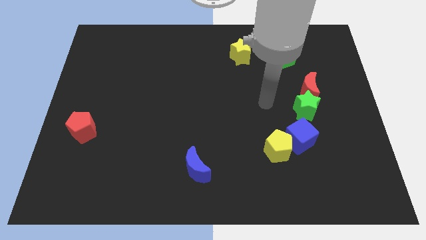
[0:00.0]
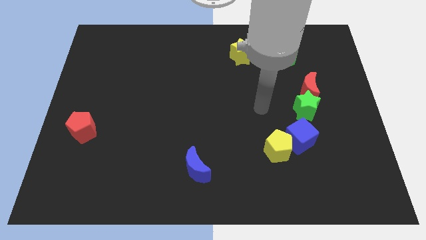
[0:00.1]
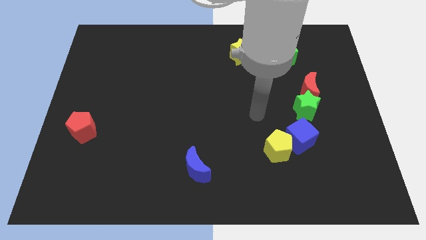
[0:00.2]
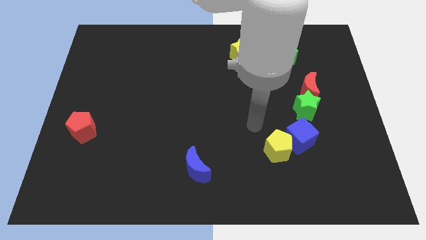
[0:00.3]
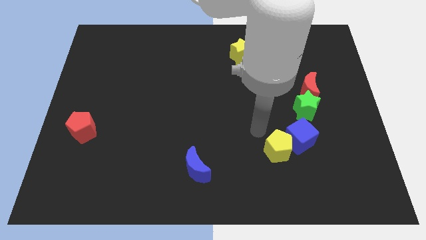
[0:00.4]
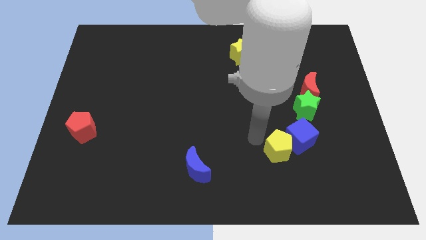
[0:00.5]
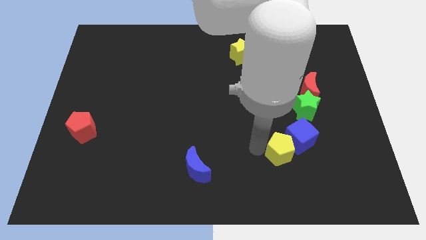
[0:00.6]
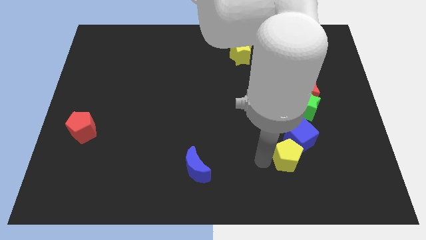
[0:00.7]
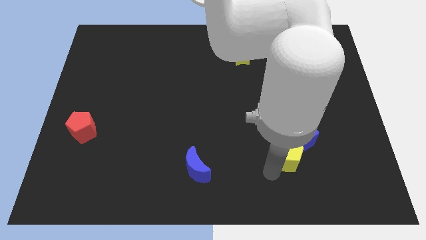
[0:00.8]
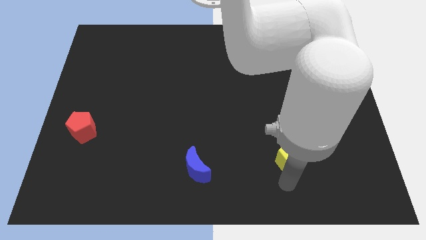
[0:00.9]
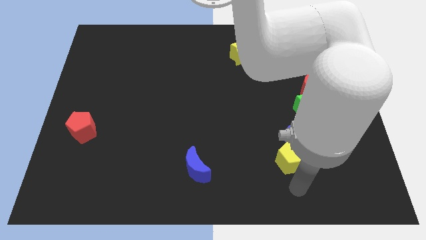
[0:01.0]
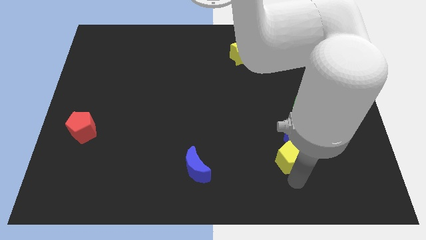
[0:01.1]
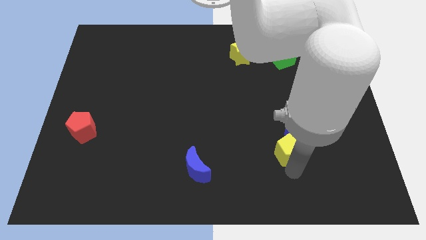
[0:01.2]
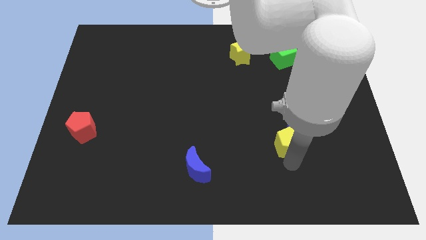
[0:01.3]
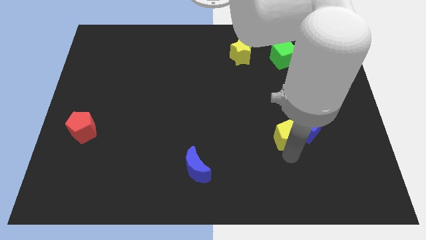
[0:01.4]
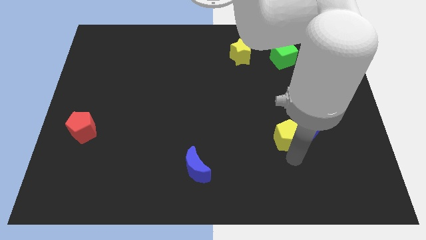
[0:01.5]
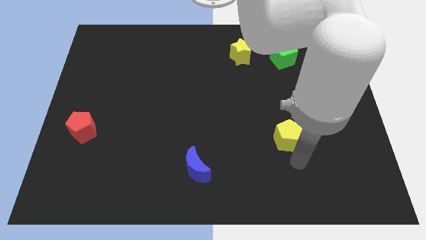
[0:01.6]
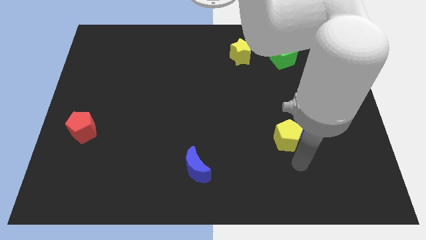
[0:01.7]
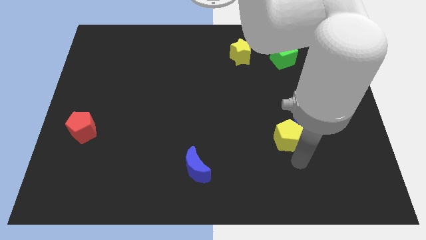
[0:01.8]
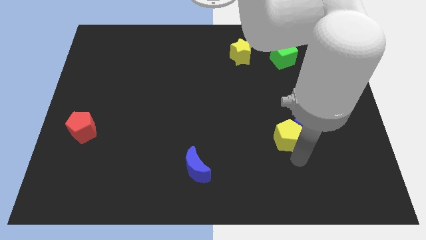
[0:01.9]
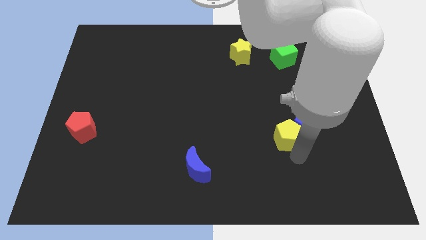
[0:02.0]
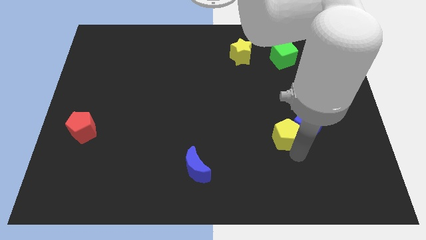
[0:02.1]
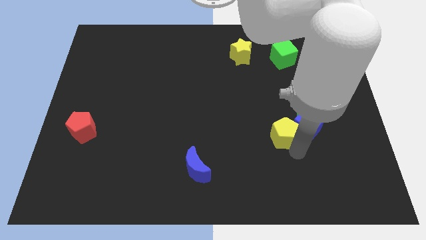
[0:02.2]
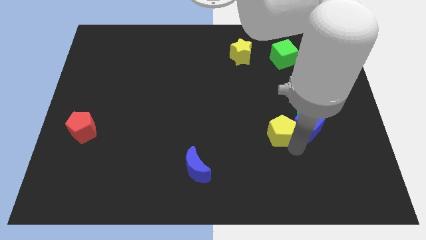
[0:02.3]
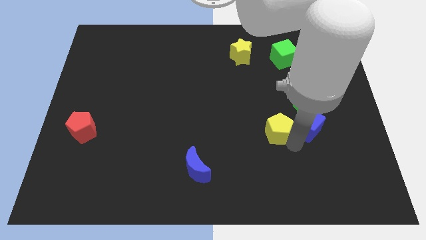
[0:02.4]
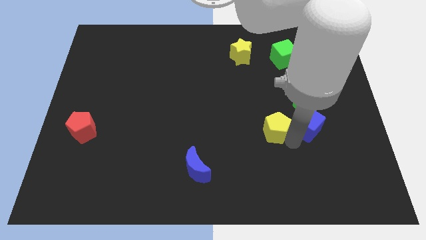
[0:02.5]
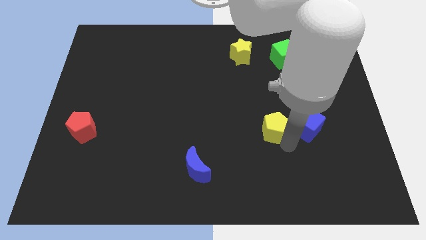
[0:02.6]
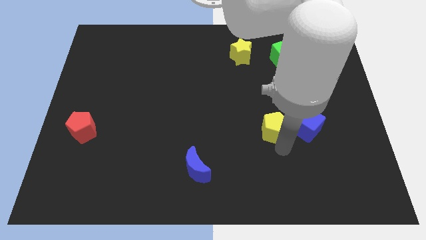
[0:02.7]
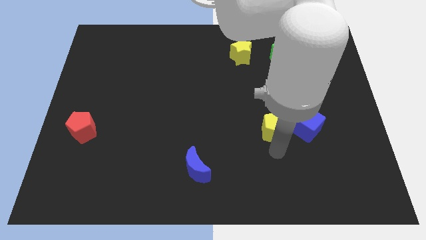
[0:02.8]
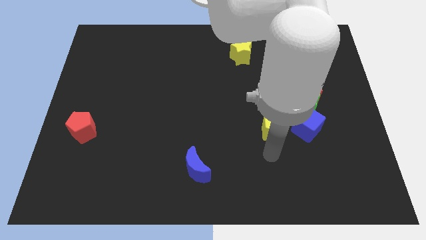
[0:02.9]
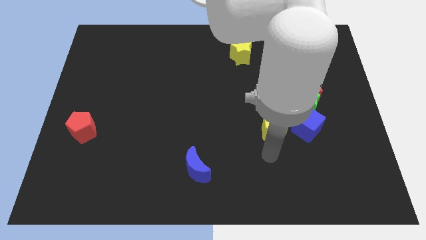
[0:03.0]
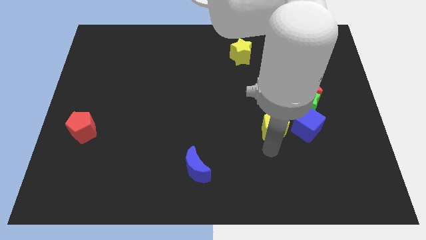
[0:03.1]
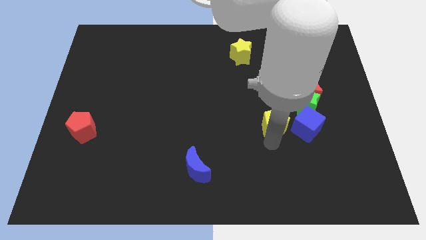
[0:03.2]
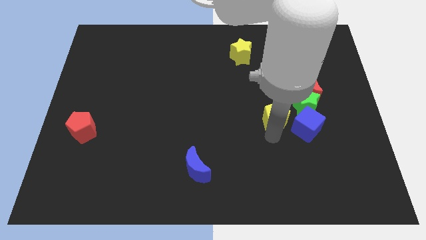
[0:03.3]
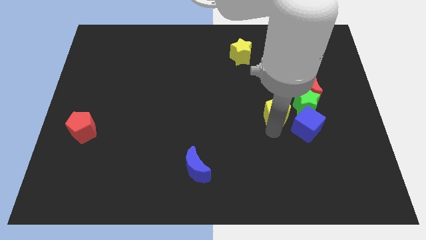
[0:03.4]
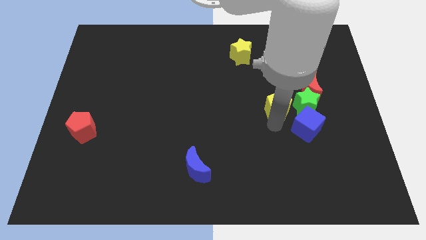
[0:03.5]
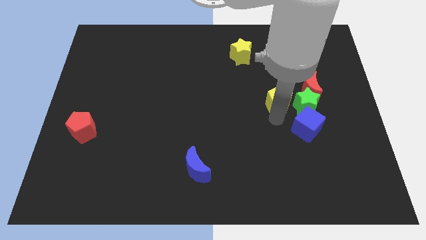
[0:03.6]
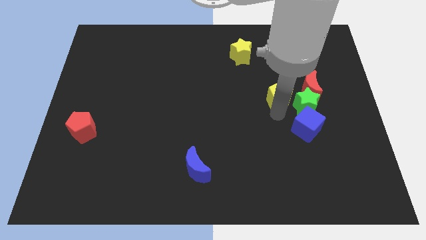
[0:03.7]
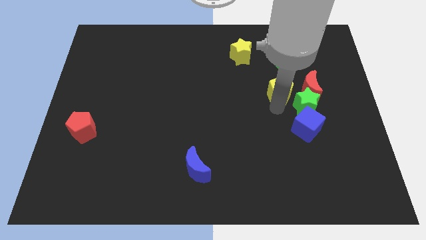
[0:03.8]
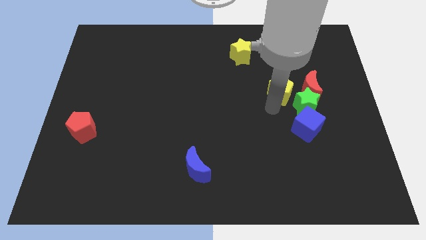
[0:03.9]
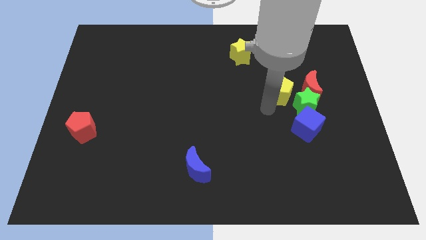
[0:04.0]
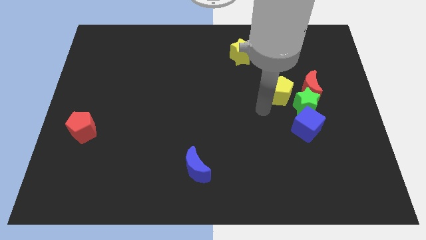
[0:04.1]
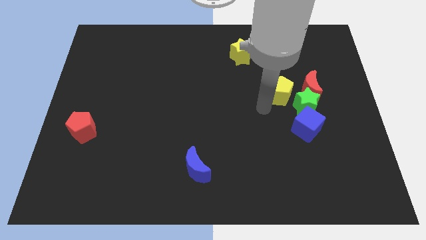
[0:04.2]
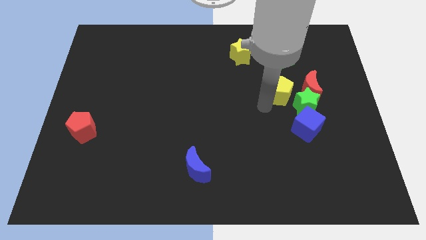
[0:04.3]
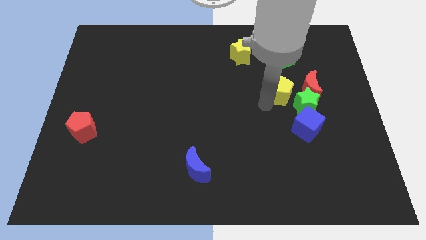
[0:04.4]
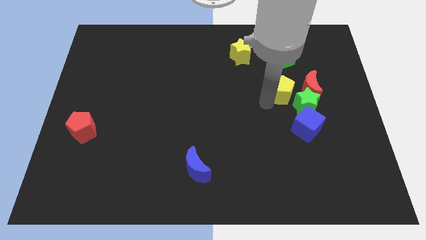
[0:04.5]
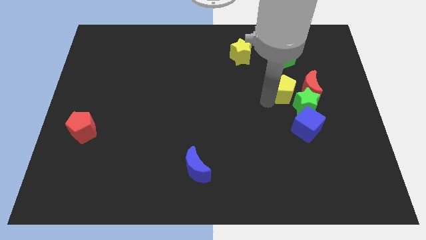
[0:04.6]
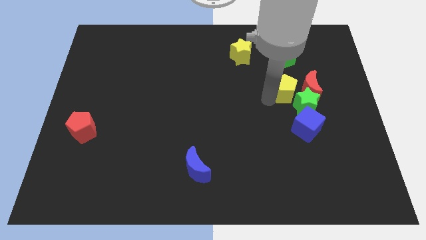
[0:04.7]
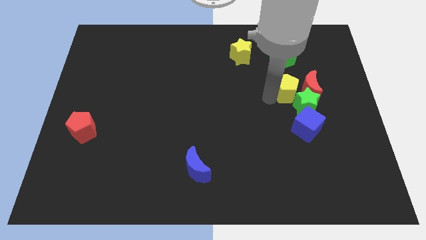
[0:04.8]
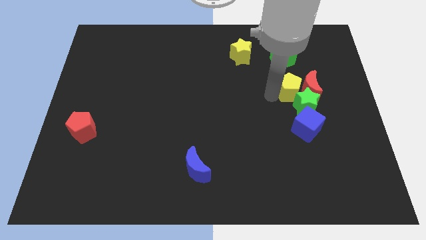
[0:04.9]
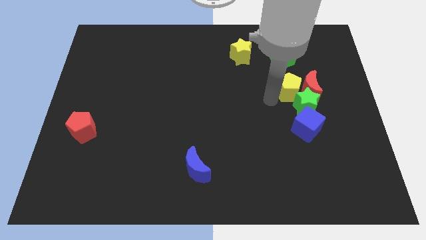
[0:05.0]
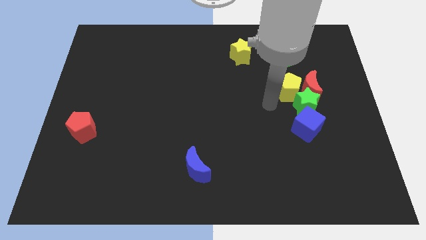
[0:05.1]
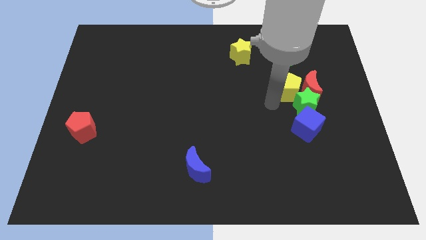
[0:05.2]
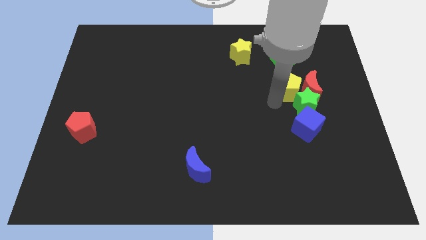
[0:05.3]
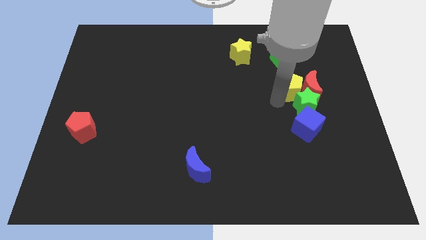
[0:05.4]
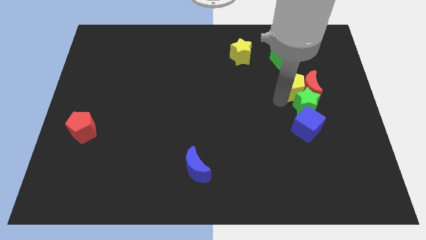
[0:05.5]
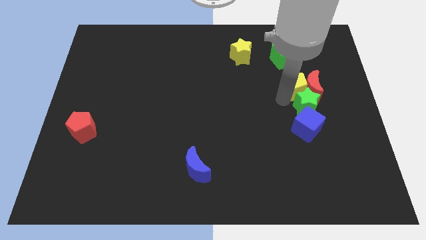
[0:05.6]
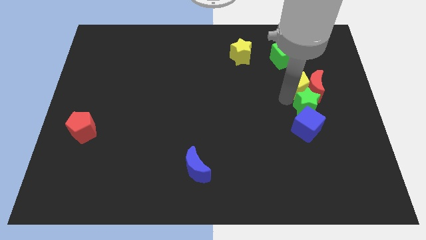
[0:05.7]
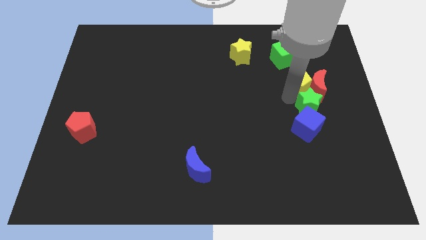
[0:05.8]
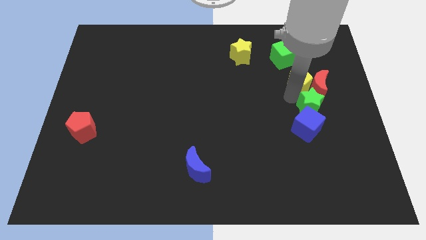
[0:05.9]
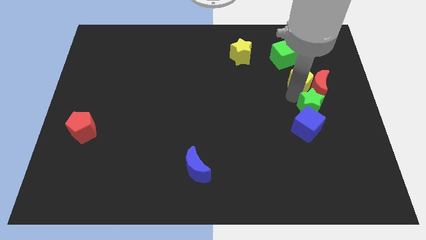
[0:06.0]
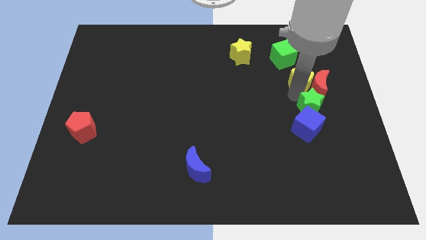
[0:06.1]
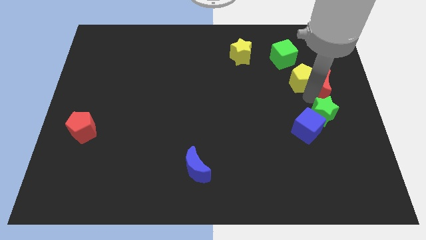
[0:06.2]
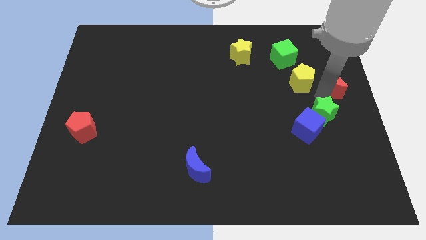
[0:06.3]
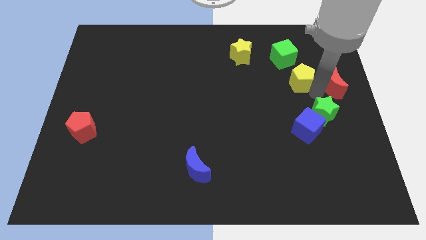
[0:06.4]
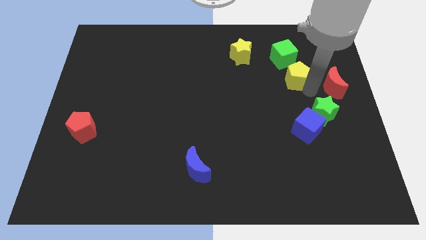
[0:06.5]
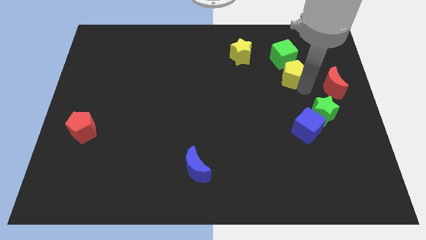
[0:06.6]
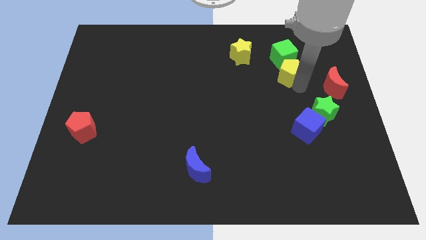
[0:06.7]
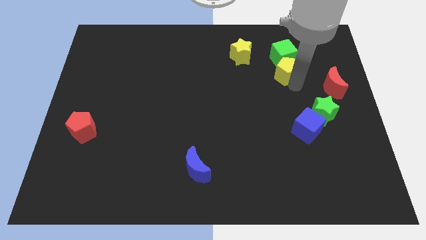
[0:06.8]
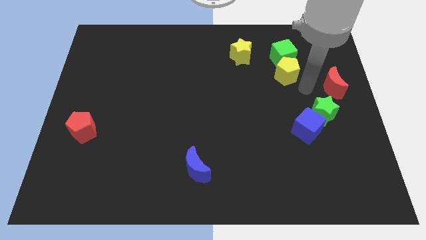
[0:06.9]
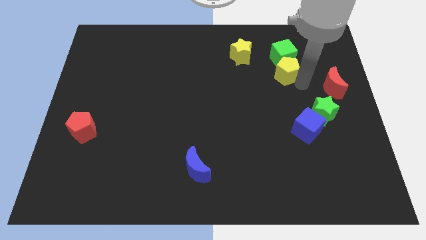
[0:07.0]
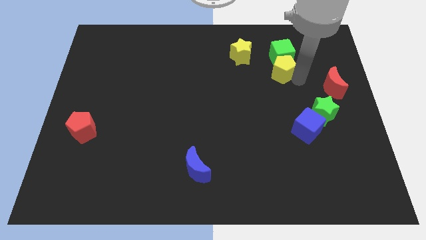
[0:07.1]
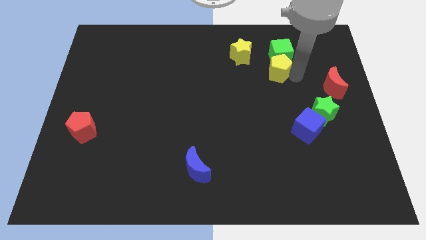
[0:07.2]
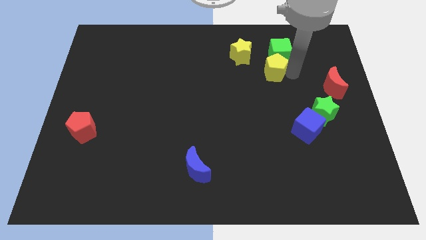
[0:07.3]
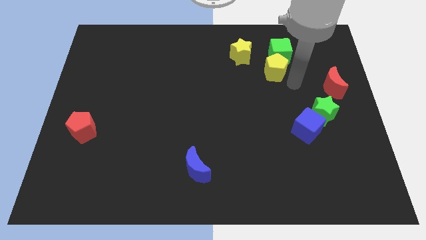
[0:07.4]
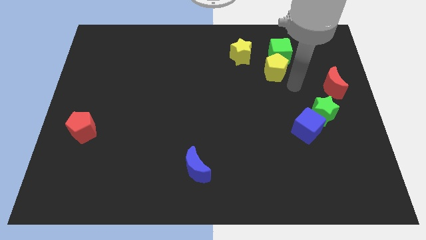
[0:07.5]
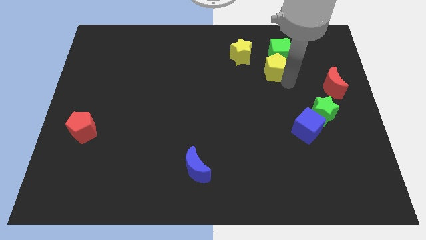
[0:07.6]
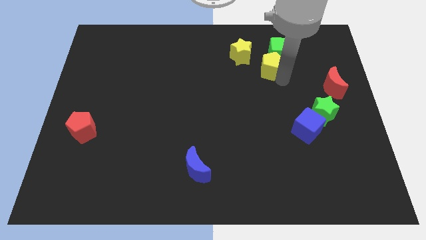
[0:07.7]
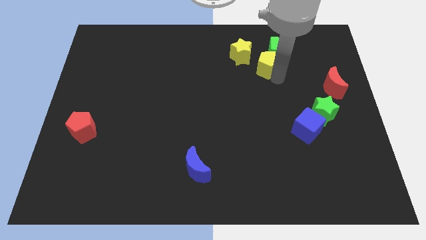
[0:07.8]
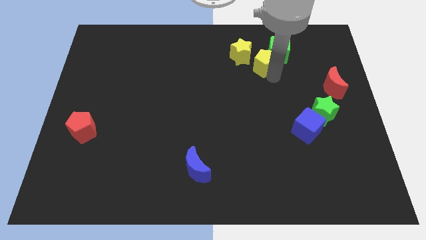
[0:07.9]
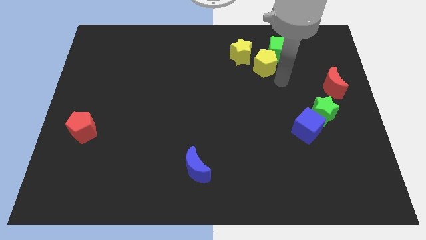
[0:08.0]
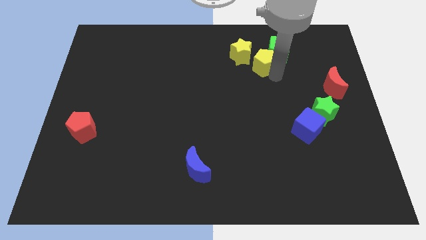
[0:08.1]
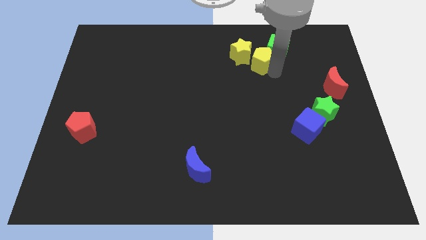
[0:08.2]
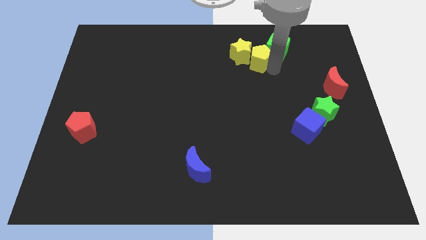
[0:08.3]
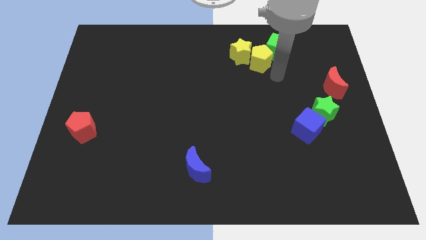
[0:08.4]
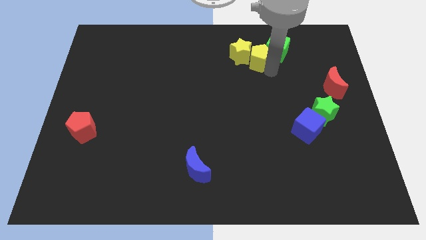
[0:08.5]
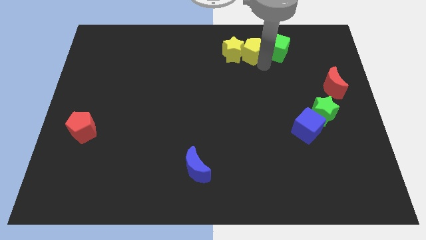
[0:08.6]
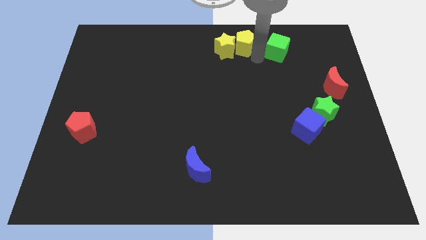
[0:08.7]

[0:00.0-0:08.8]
slide the yellow pentagon to the top side
